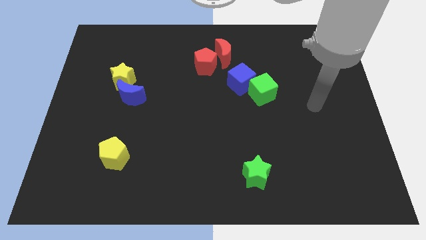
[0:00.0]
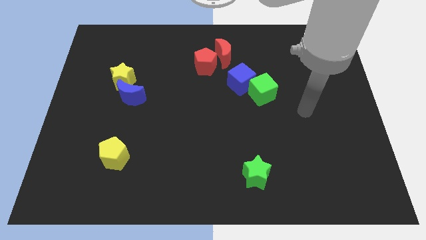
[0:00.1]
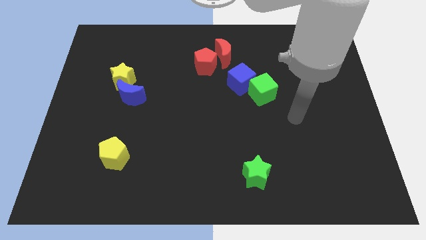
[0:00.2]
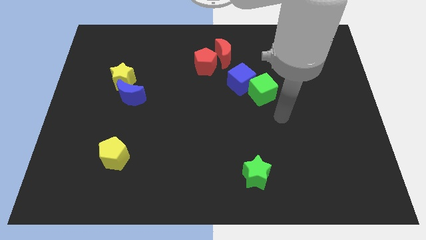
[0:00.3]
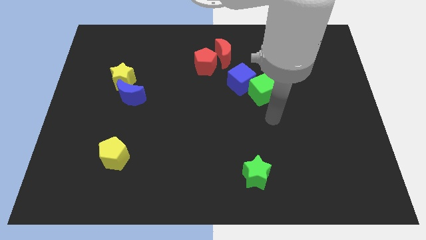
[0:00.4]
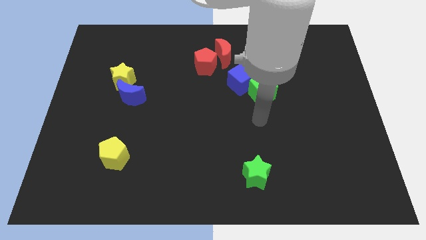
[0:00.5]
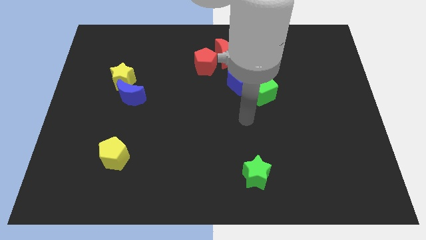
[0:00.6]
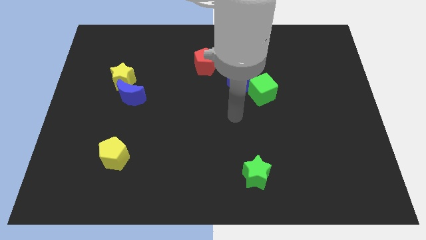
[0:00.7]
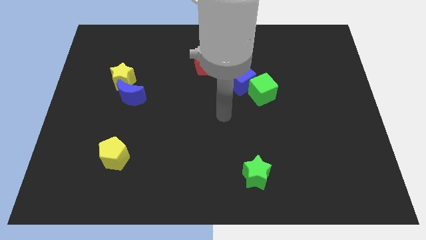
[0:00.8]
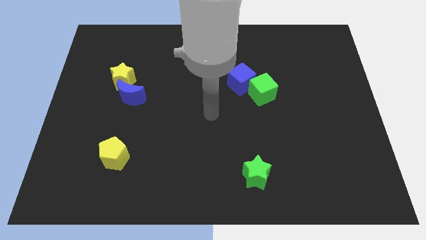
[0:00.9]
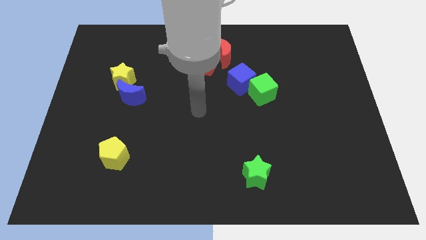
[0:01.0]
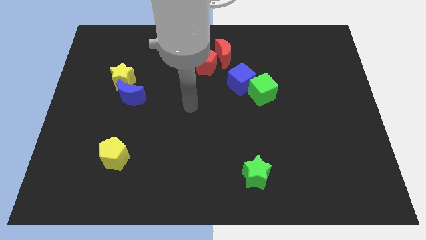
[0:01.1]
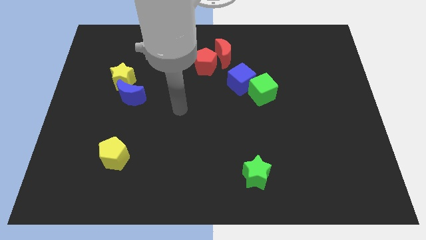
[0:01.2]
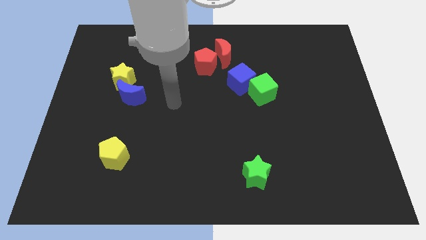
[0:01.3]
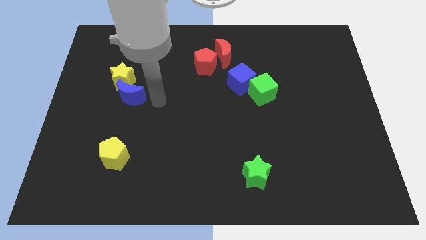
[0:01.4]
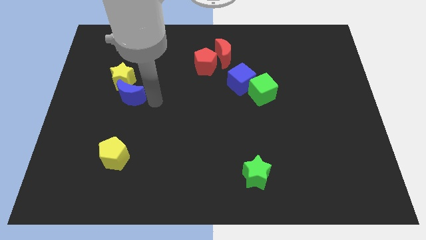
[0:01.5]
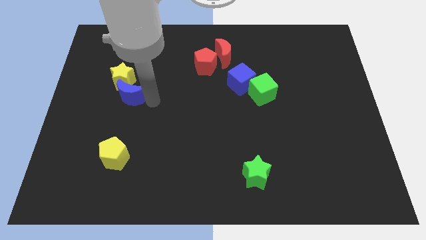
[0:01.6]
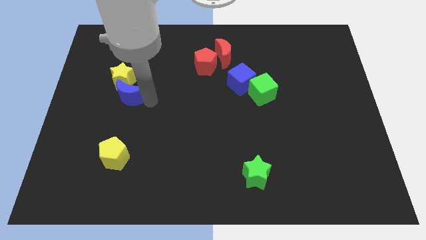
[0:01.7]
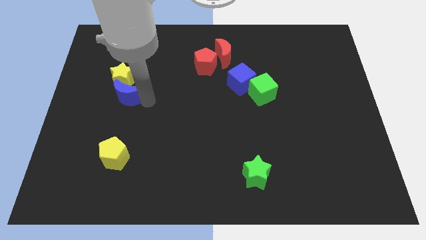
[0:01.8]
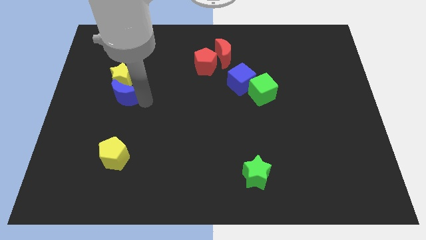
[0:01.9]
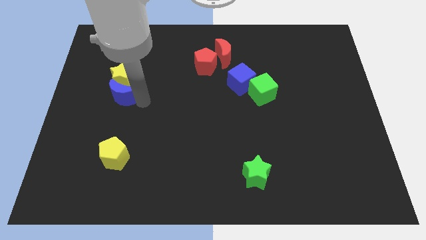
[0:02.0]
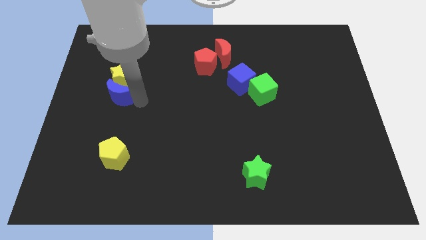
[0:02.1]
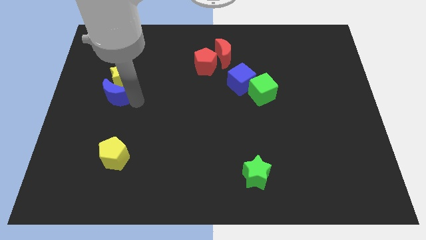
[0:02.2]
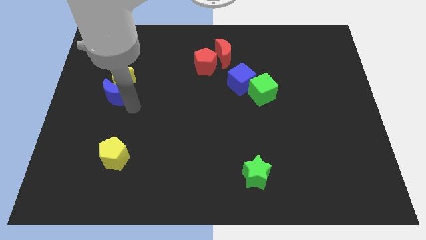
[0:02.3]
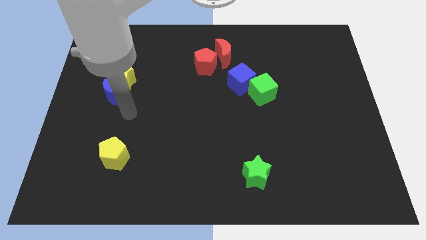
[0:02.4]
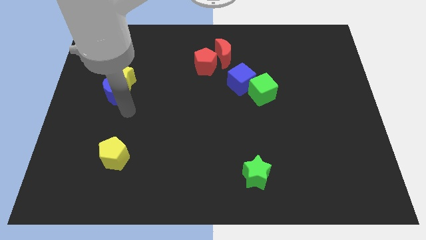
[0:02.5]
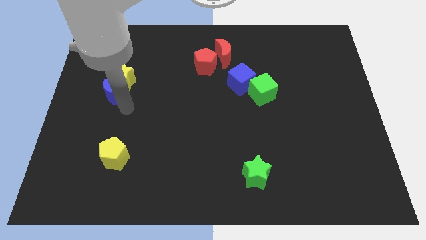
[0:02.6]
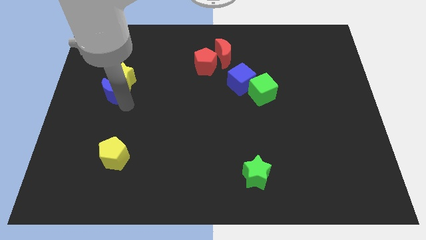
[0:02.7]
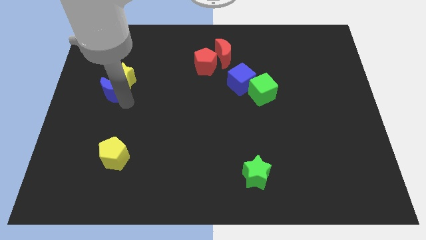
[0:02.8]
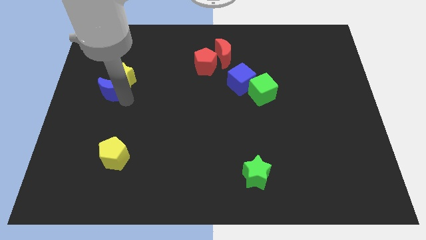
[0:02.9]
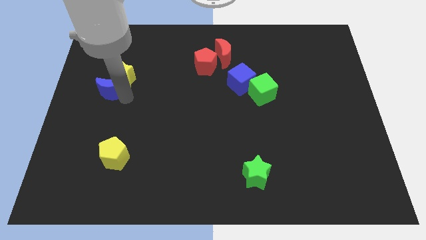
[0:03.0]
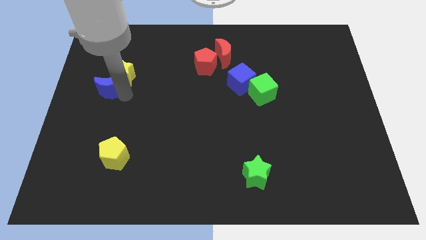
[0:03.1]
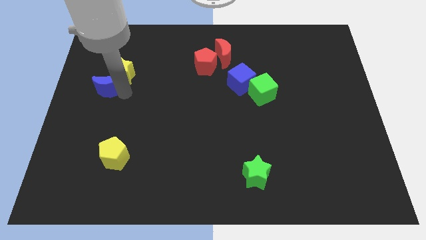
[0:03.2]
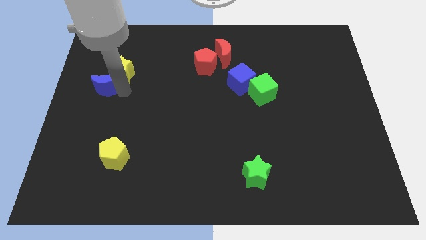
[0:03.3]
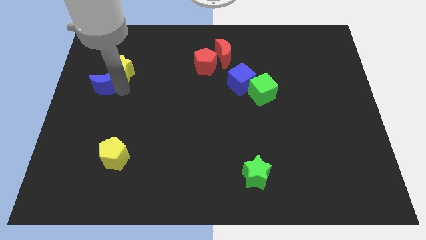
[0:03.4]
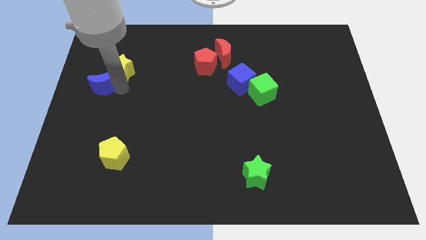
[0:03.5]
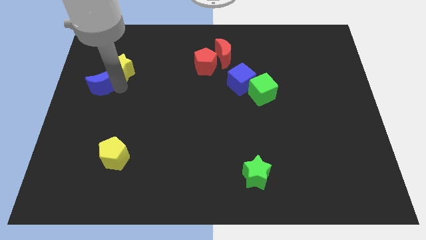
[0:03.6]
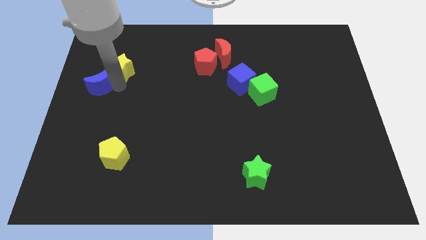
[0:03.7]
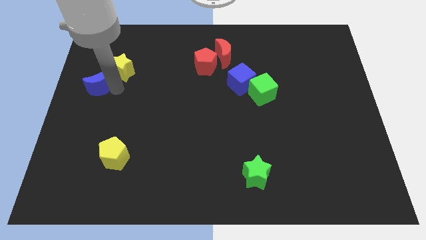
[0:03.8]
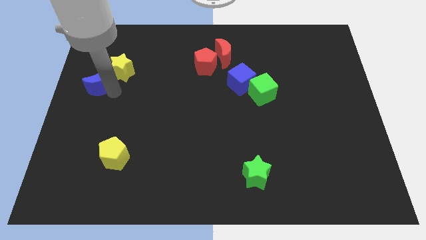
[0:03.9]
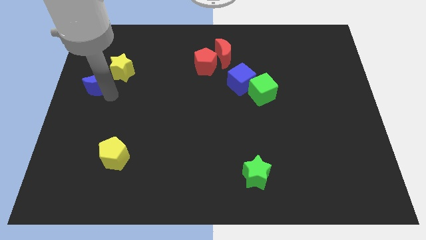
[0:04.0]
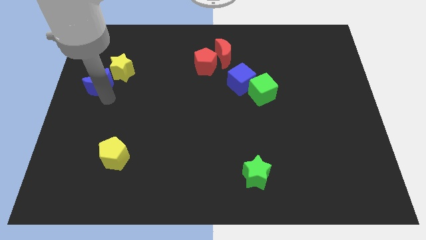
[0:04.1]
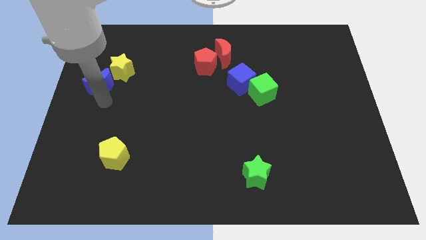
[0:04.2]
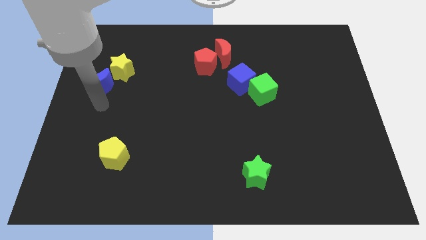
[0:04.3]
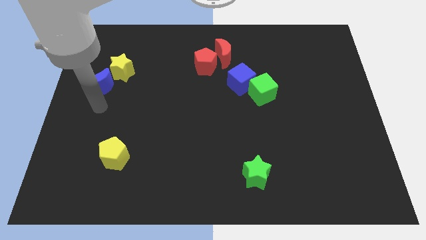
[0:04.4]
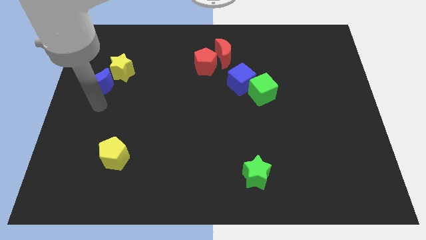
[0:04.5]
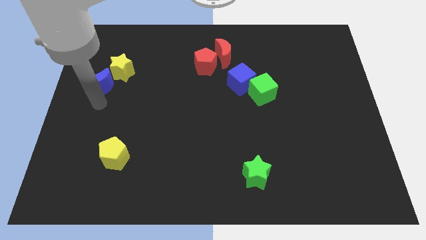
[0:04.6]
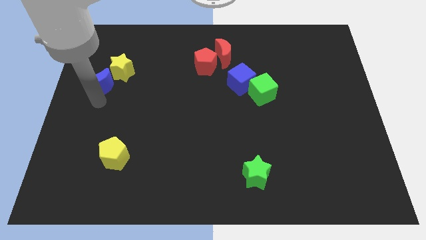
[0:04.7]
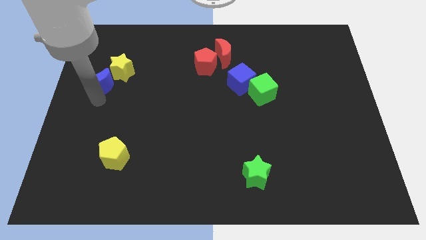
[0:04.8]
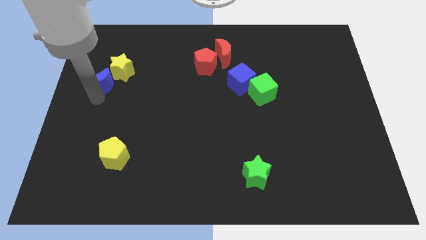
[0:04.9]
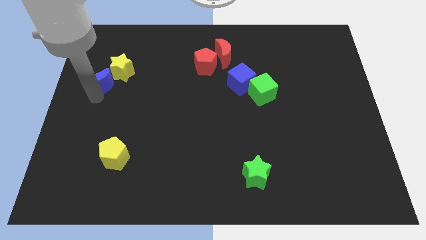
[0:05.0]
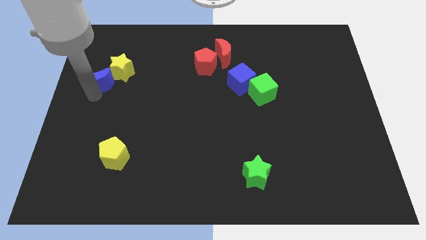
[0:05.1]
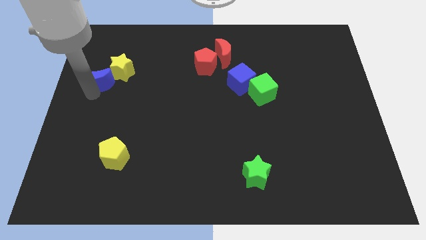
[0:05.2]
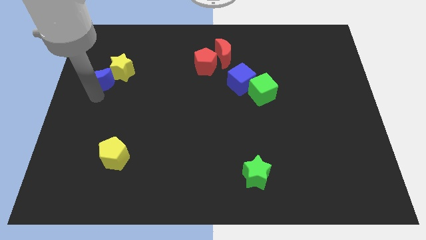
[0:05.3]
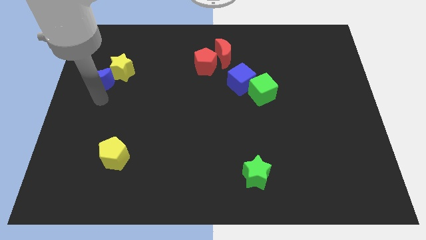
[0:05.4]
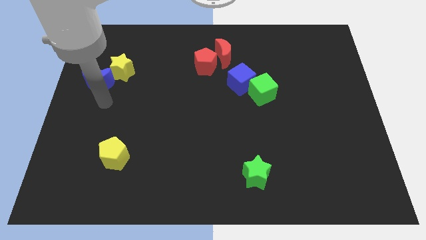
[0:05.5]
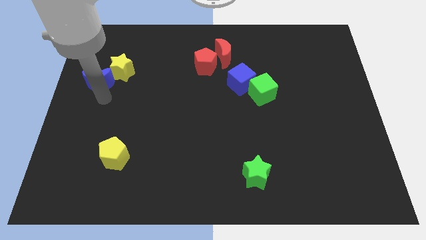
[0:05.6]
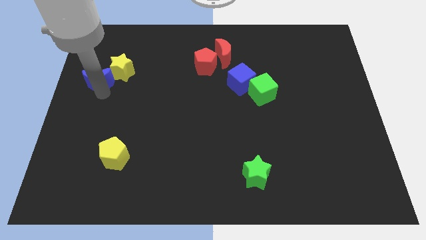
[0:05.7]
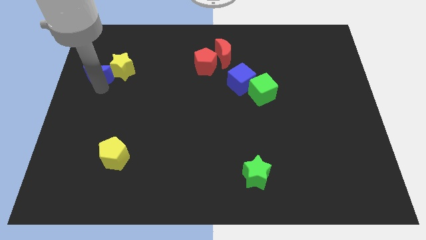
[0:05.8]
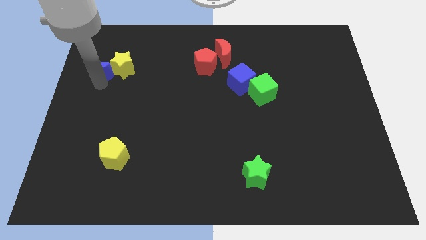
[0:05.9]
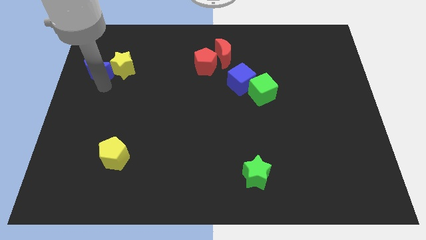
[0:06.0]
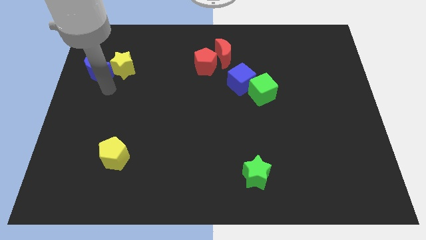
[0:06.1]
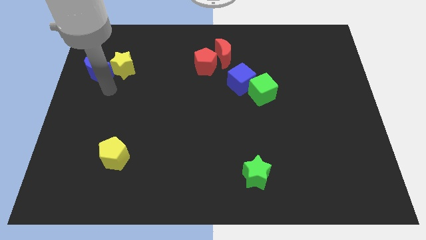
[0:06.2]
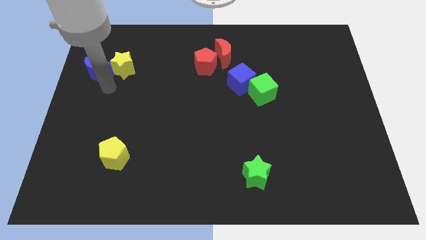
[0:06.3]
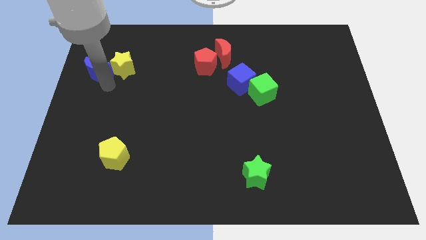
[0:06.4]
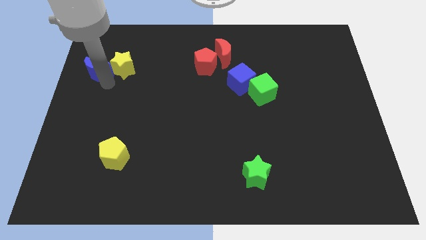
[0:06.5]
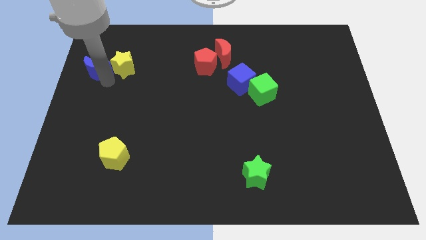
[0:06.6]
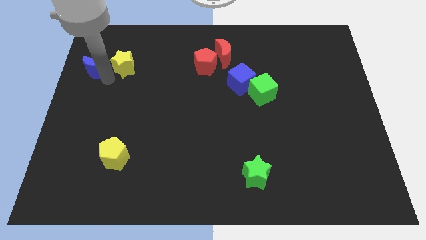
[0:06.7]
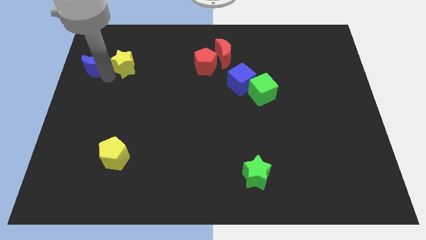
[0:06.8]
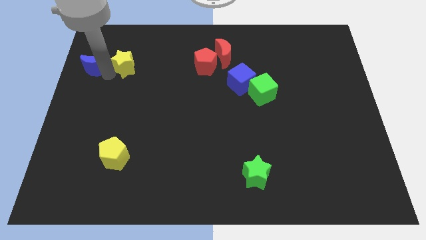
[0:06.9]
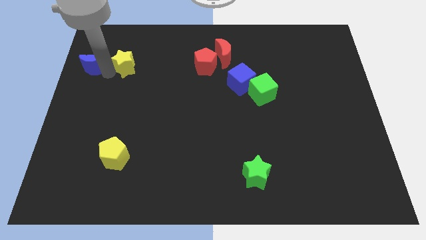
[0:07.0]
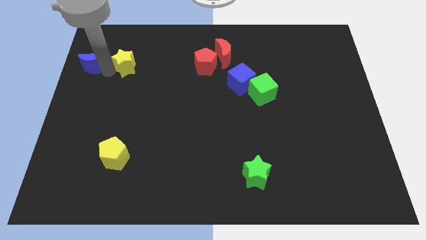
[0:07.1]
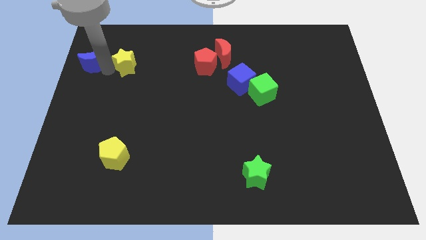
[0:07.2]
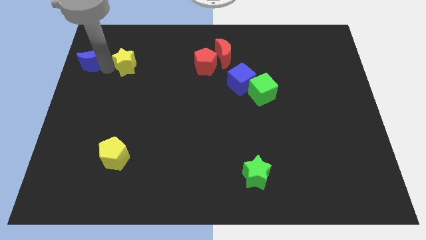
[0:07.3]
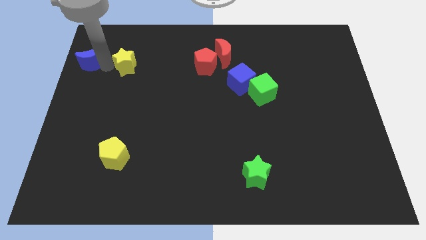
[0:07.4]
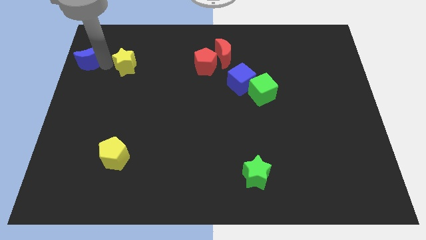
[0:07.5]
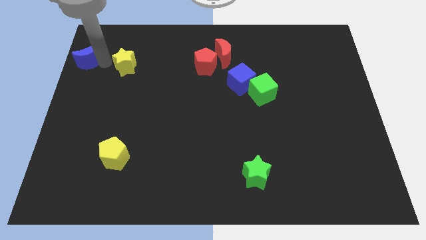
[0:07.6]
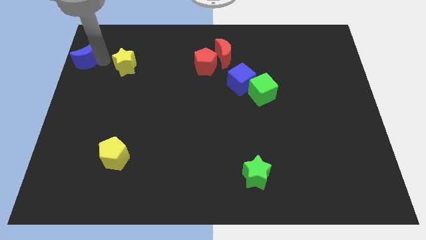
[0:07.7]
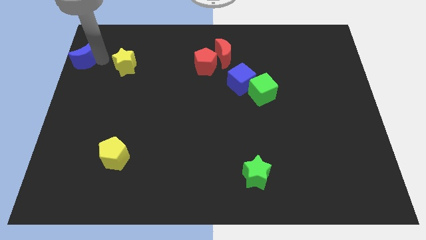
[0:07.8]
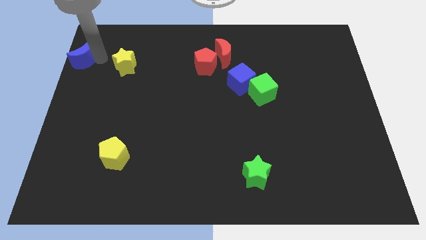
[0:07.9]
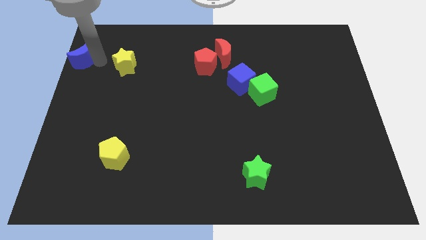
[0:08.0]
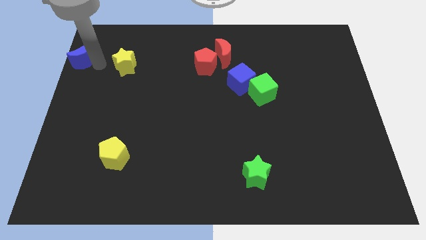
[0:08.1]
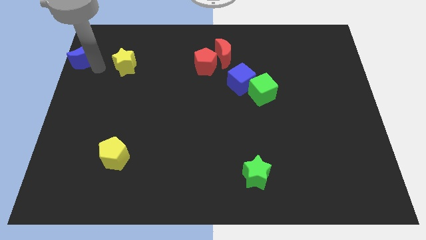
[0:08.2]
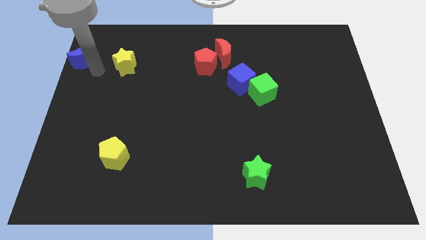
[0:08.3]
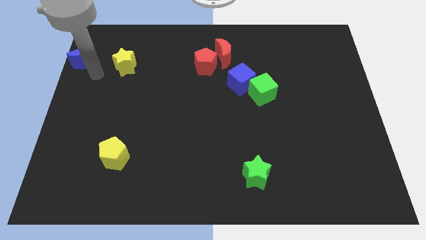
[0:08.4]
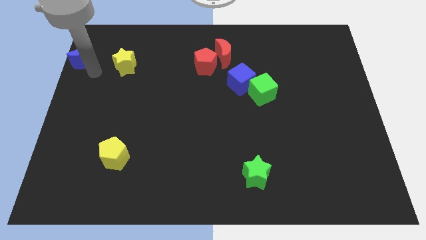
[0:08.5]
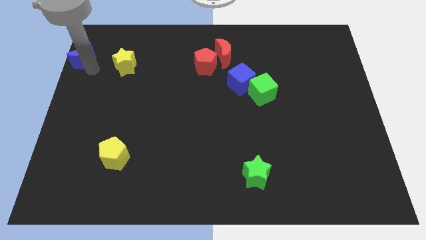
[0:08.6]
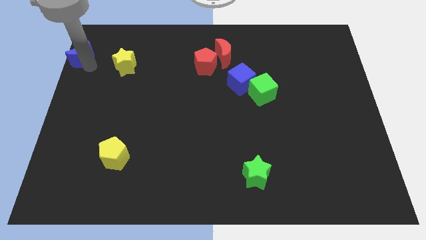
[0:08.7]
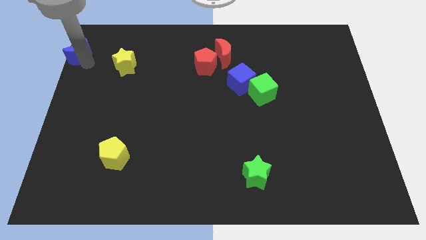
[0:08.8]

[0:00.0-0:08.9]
move the blue moon to the upper left corner
